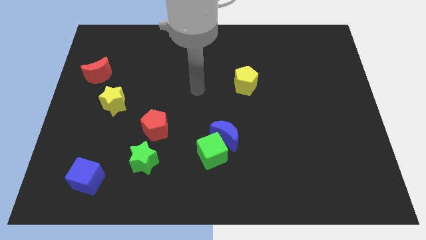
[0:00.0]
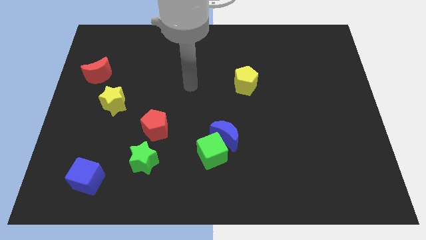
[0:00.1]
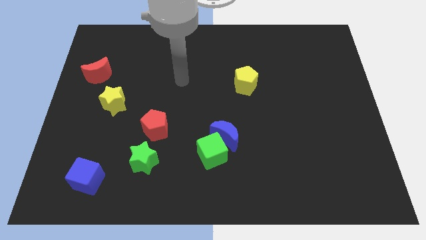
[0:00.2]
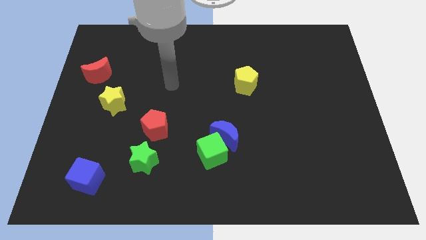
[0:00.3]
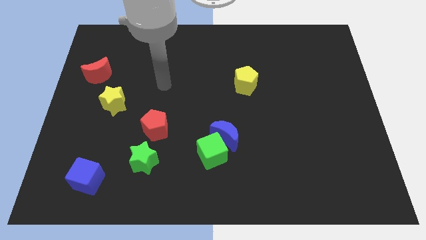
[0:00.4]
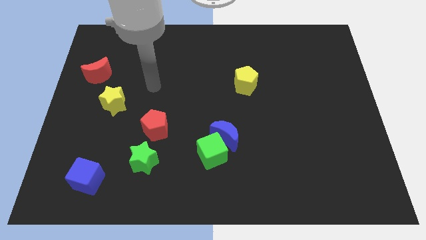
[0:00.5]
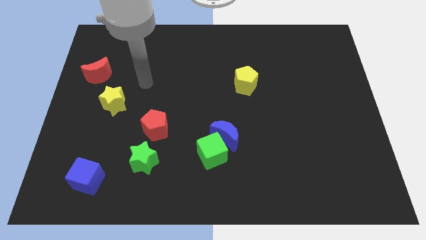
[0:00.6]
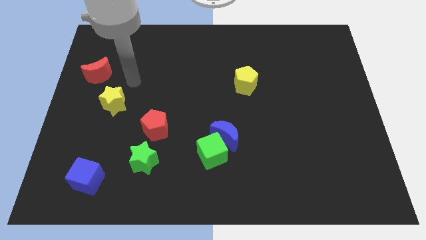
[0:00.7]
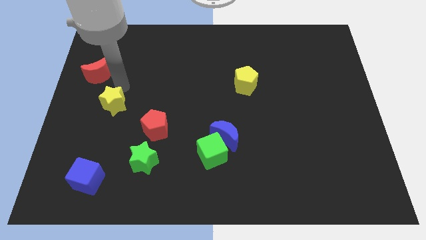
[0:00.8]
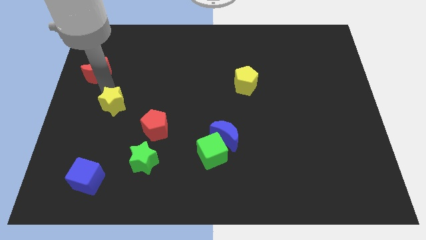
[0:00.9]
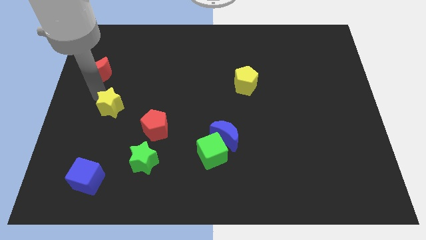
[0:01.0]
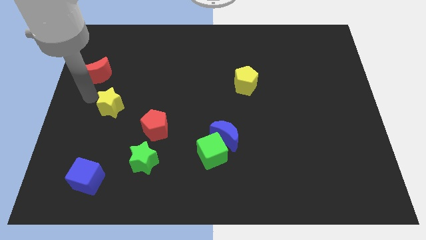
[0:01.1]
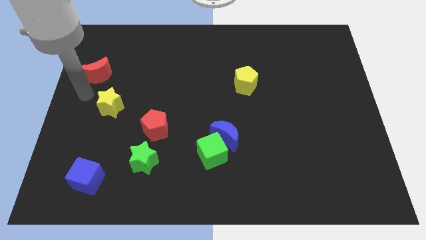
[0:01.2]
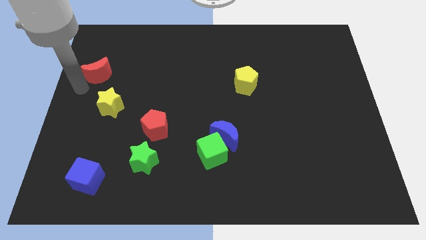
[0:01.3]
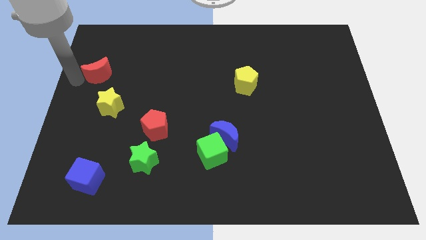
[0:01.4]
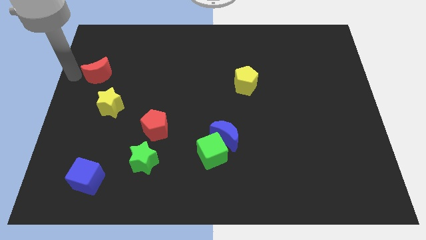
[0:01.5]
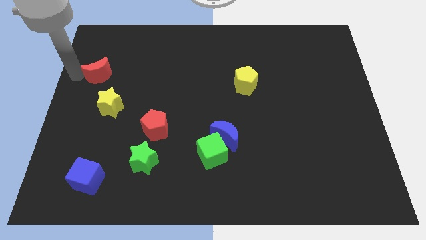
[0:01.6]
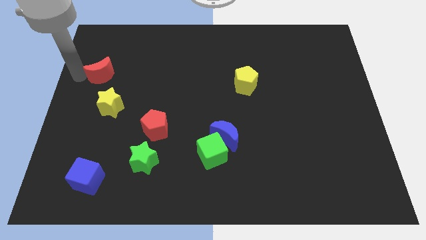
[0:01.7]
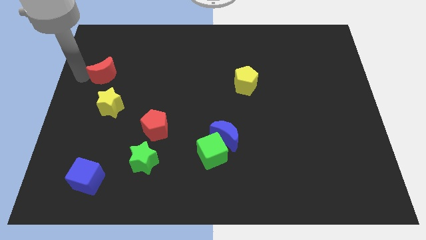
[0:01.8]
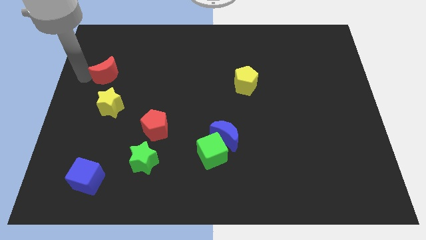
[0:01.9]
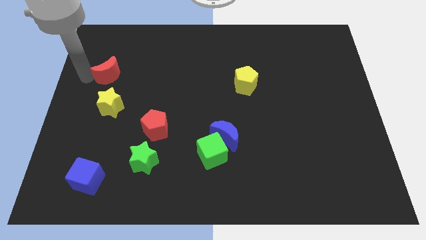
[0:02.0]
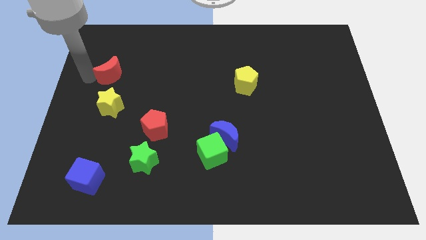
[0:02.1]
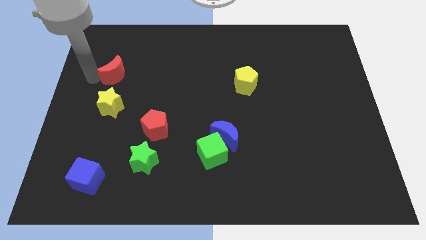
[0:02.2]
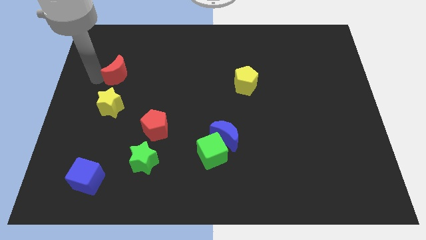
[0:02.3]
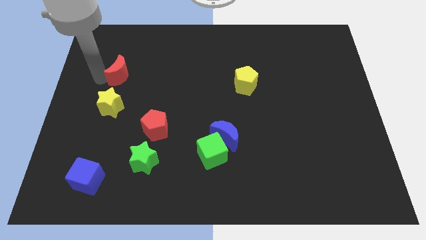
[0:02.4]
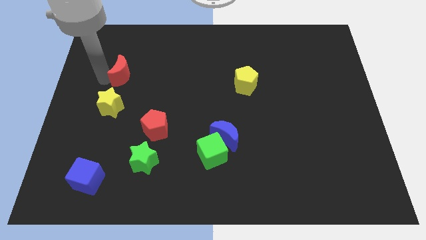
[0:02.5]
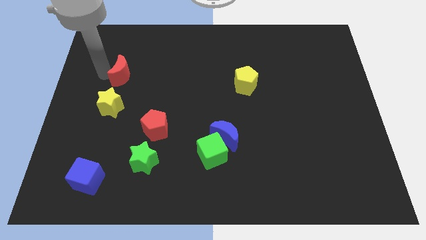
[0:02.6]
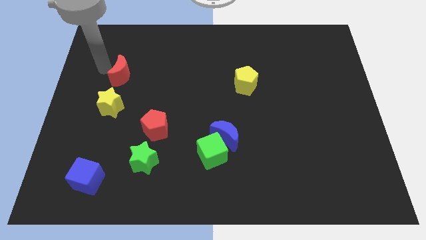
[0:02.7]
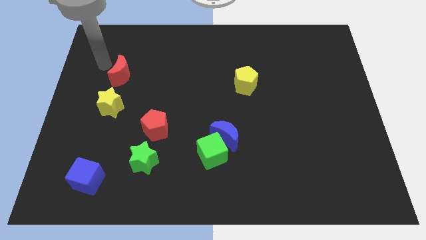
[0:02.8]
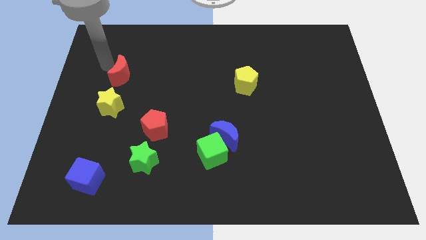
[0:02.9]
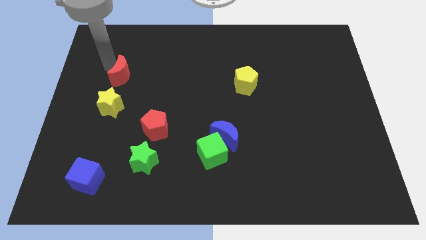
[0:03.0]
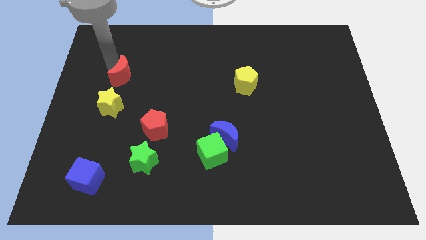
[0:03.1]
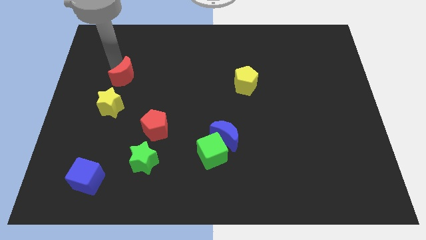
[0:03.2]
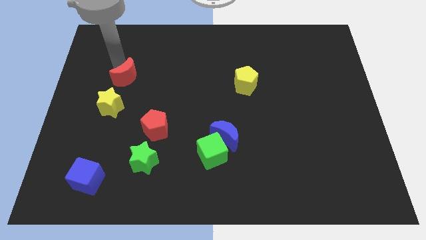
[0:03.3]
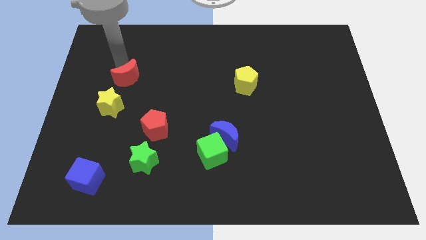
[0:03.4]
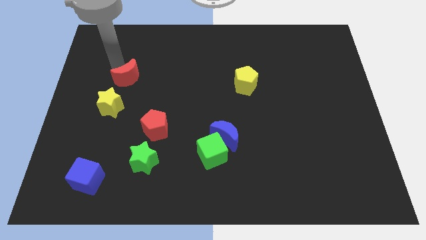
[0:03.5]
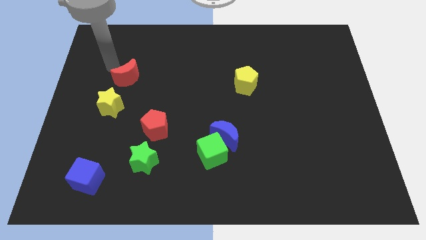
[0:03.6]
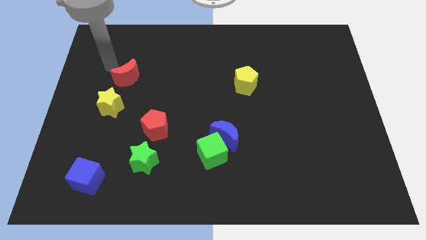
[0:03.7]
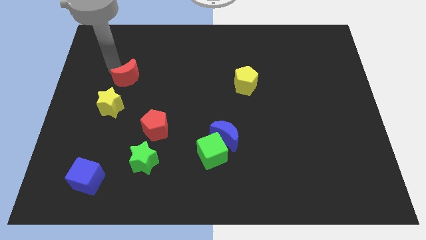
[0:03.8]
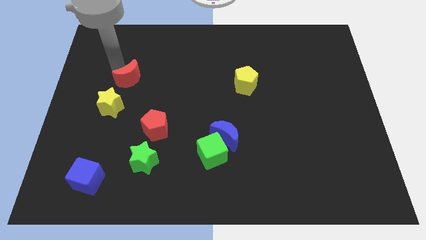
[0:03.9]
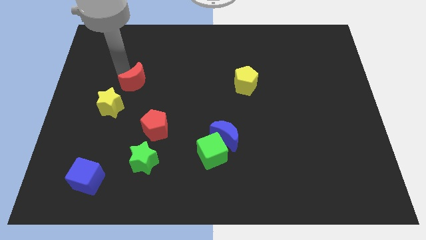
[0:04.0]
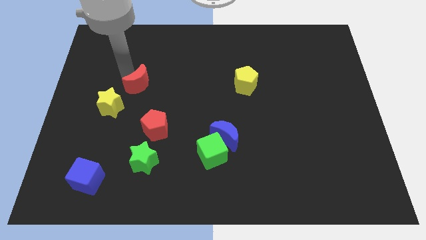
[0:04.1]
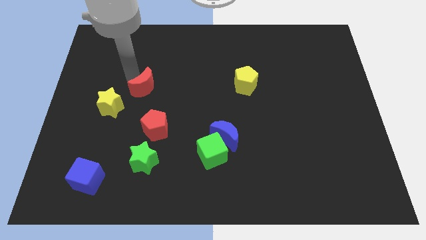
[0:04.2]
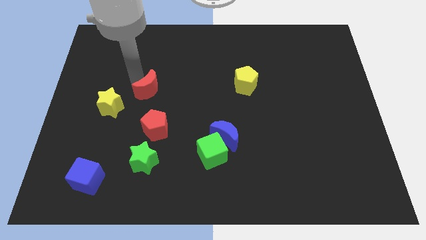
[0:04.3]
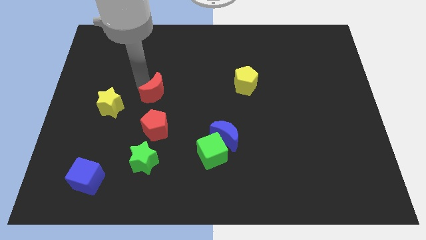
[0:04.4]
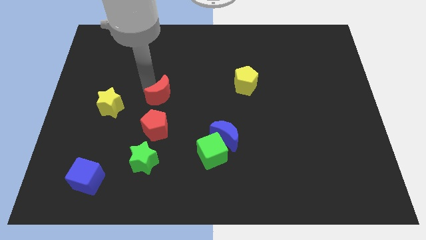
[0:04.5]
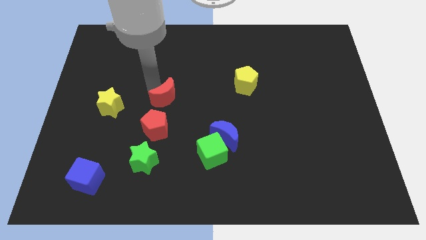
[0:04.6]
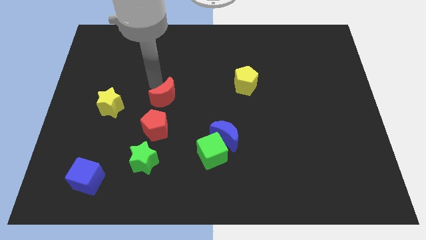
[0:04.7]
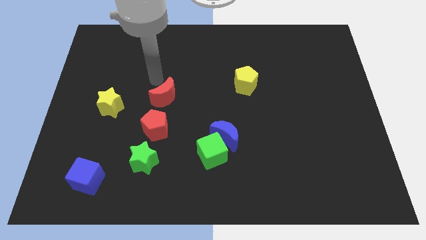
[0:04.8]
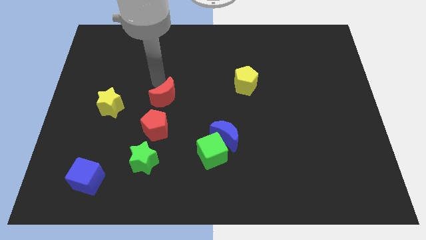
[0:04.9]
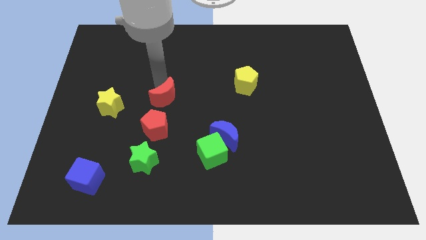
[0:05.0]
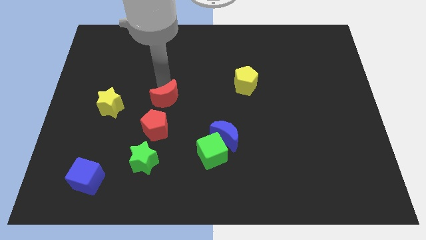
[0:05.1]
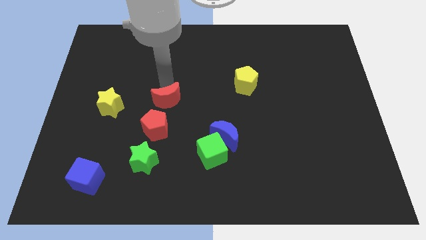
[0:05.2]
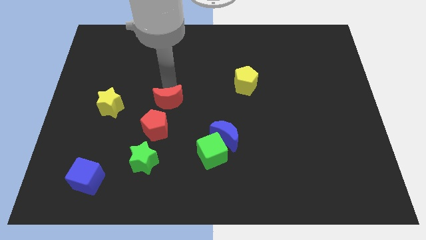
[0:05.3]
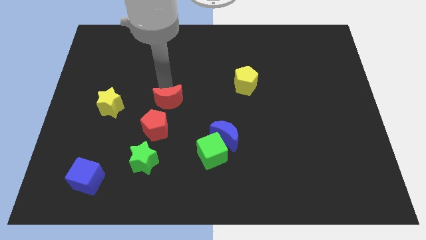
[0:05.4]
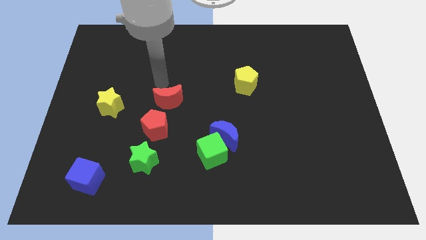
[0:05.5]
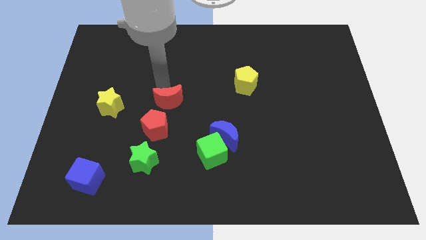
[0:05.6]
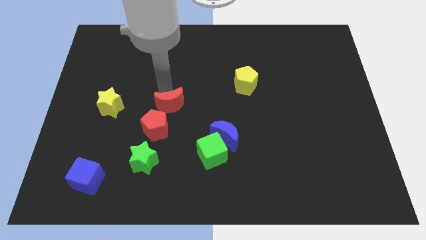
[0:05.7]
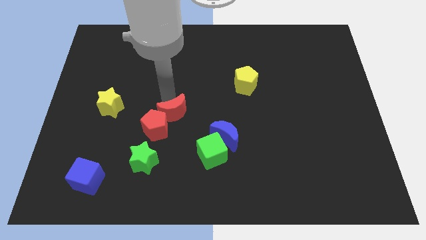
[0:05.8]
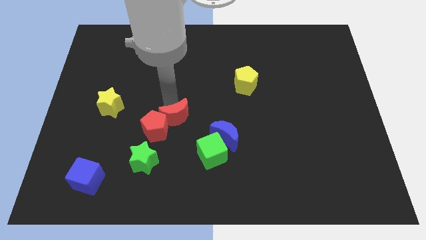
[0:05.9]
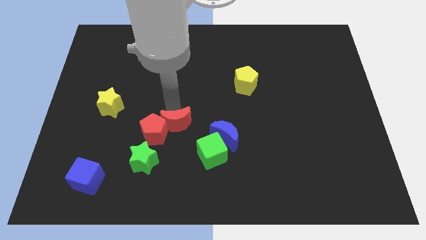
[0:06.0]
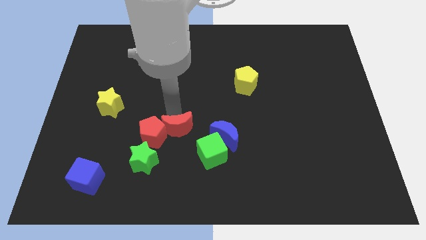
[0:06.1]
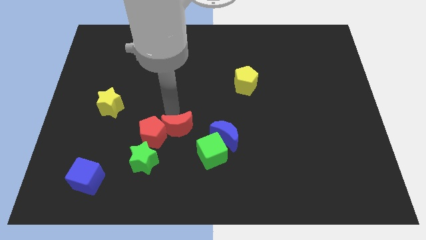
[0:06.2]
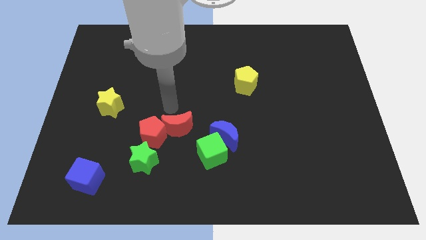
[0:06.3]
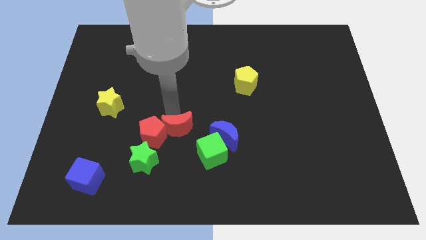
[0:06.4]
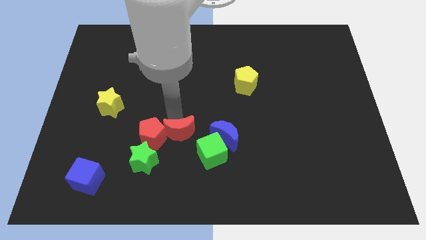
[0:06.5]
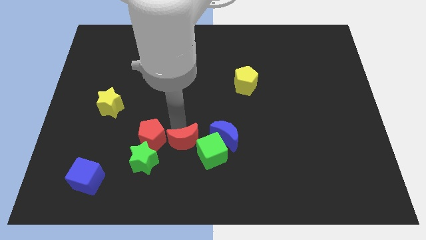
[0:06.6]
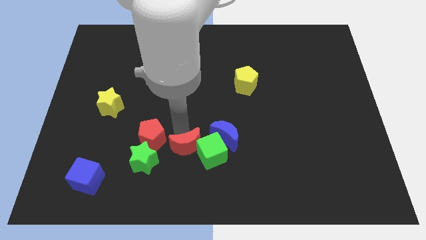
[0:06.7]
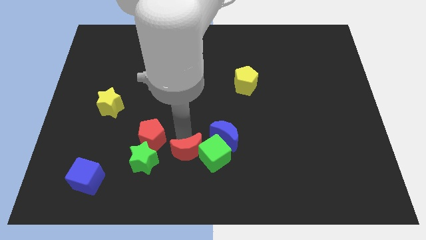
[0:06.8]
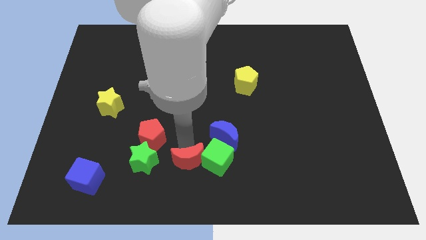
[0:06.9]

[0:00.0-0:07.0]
move the red moon to the bottom
